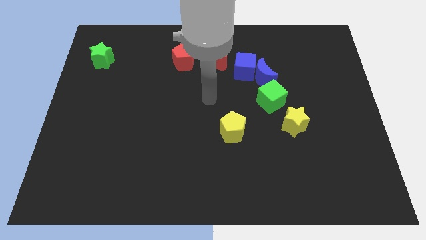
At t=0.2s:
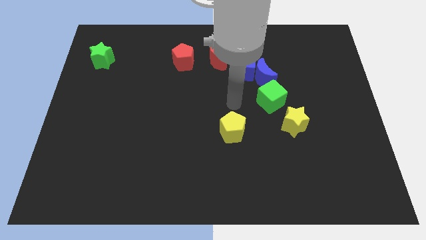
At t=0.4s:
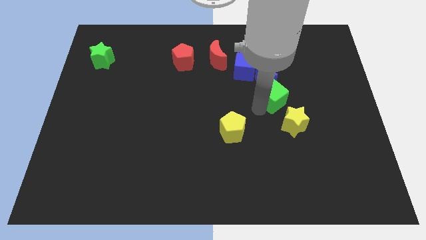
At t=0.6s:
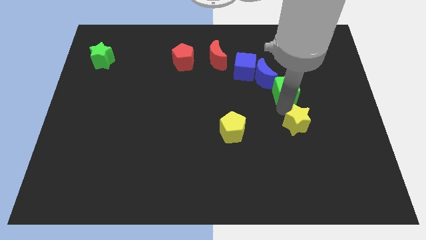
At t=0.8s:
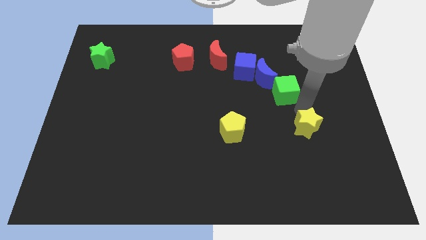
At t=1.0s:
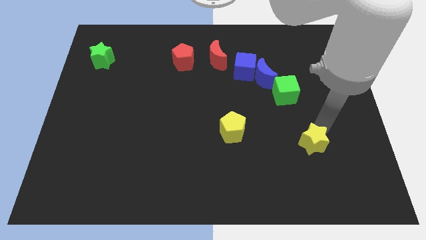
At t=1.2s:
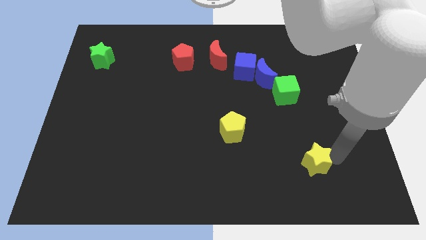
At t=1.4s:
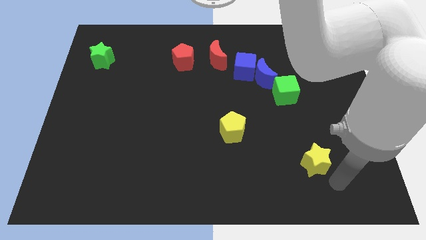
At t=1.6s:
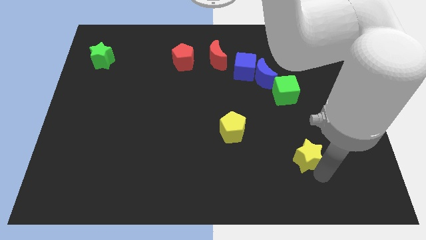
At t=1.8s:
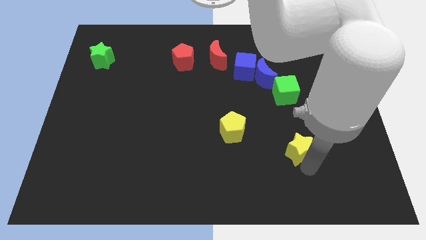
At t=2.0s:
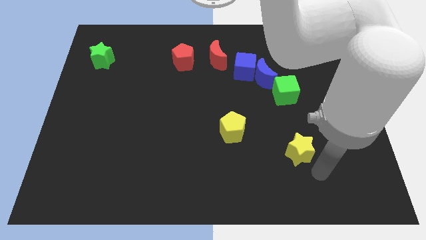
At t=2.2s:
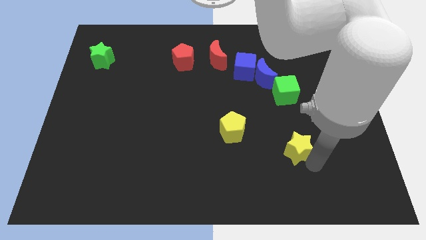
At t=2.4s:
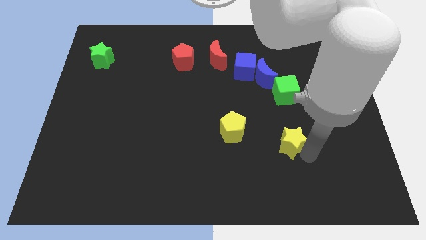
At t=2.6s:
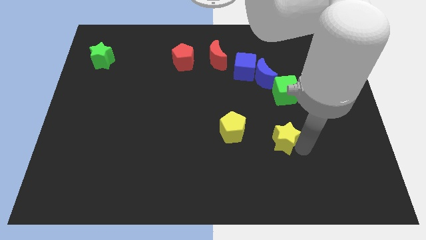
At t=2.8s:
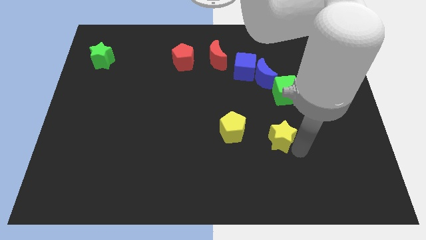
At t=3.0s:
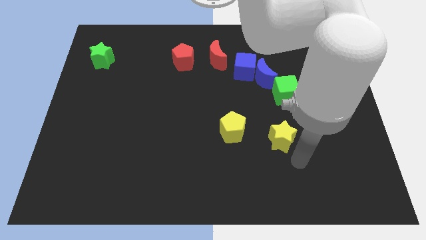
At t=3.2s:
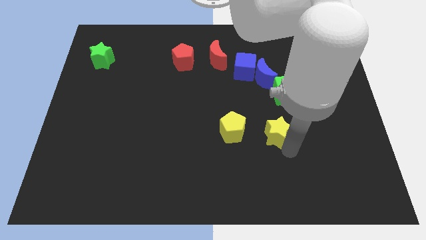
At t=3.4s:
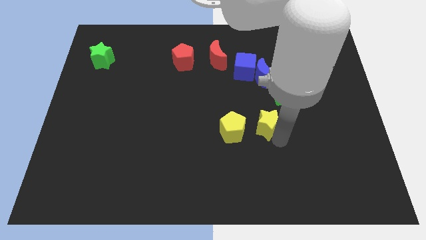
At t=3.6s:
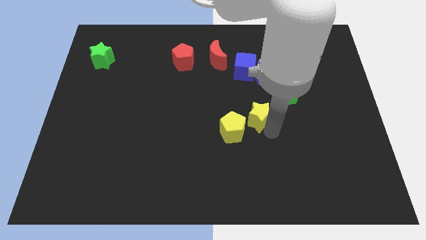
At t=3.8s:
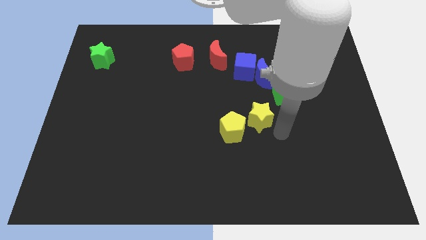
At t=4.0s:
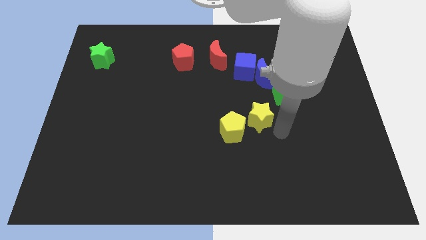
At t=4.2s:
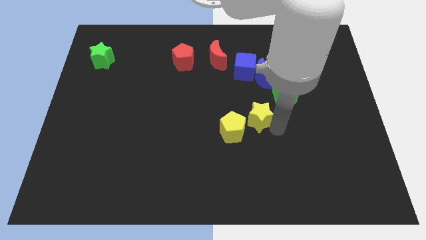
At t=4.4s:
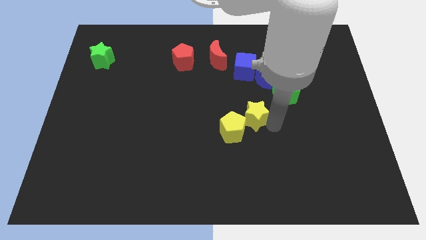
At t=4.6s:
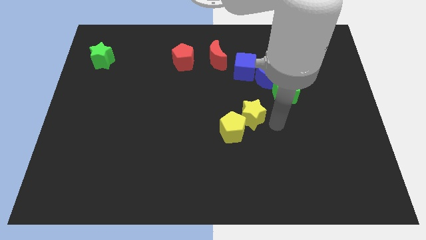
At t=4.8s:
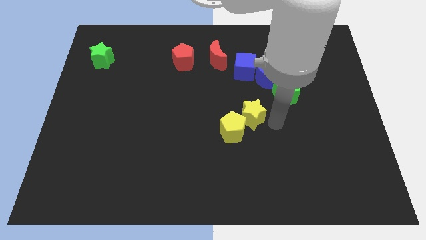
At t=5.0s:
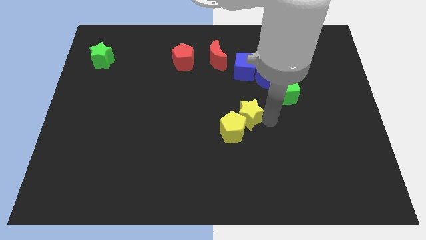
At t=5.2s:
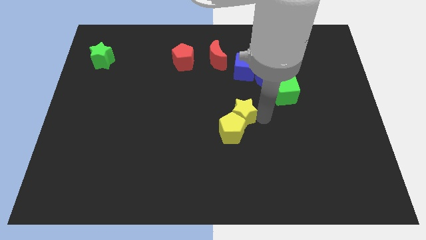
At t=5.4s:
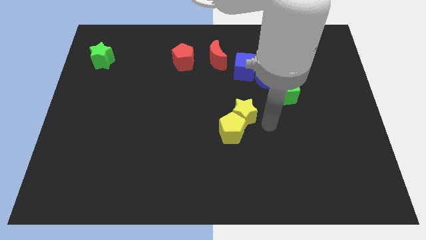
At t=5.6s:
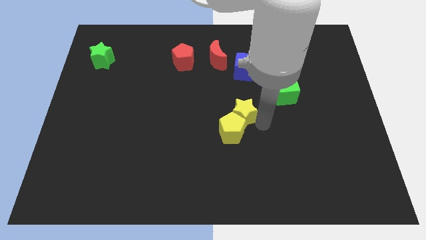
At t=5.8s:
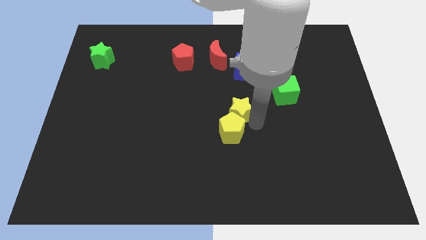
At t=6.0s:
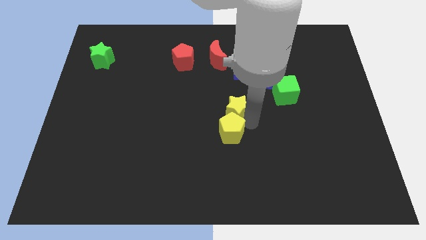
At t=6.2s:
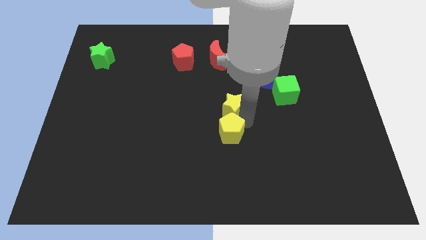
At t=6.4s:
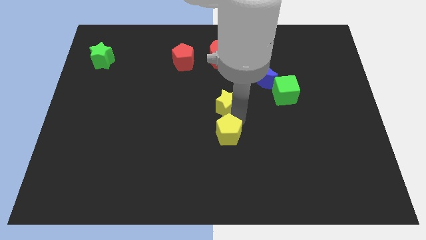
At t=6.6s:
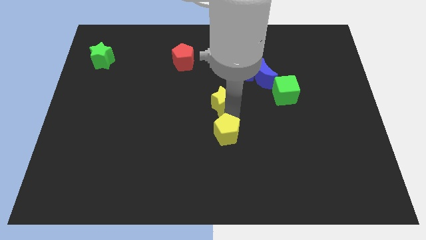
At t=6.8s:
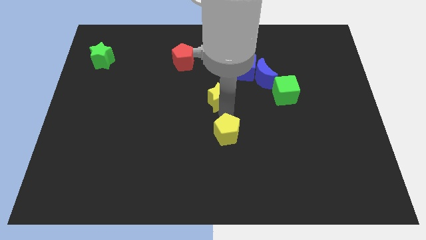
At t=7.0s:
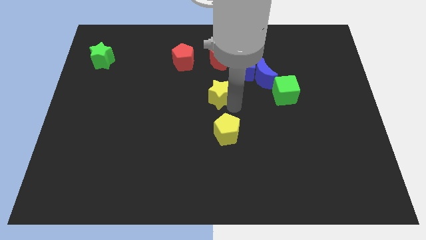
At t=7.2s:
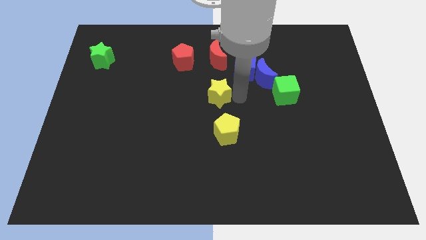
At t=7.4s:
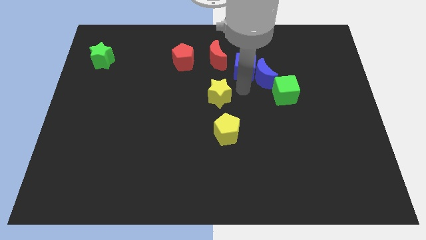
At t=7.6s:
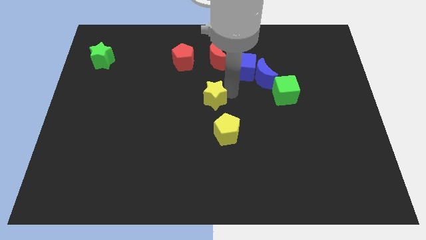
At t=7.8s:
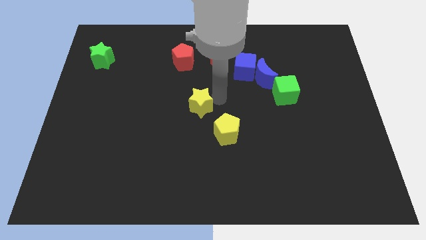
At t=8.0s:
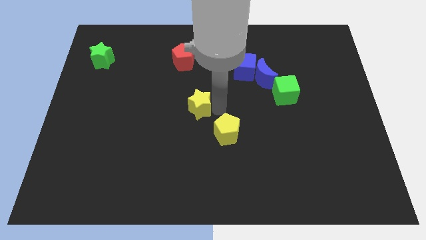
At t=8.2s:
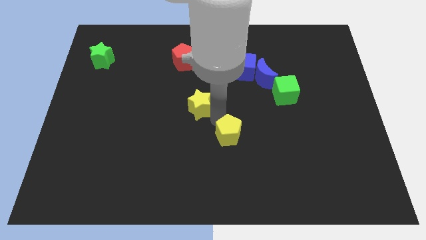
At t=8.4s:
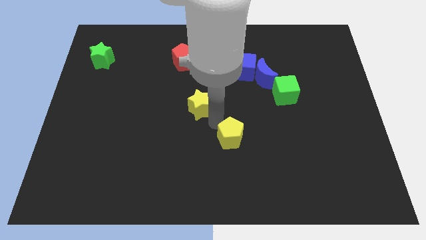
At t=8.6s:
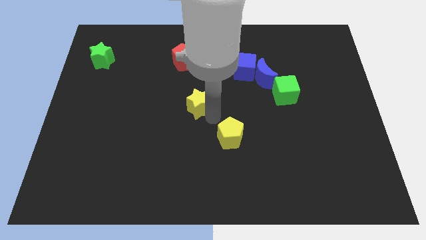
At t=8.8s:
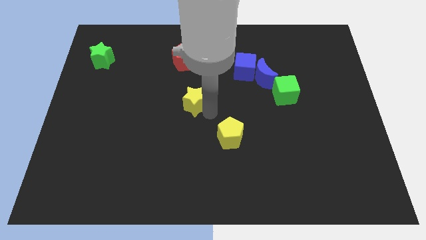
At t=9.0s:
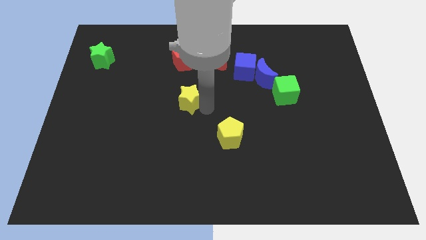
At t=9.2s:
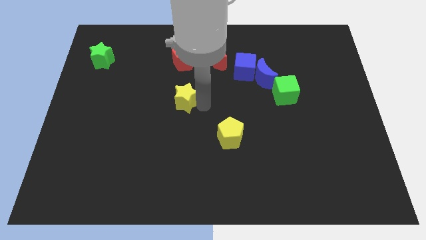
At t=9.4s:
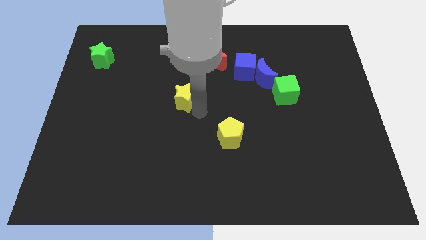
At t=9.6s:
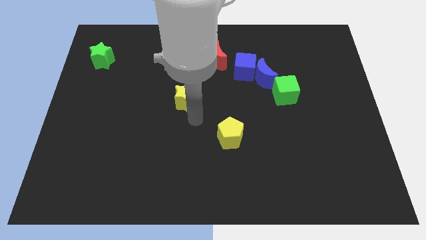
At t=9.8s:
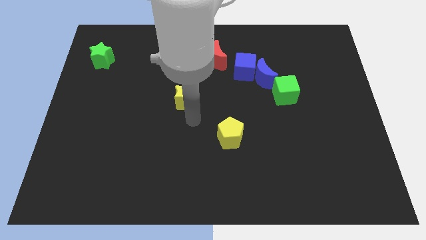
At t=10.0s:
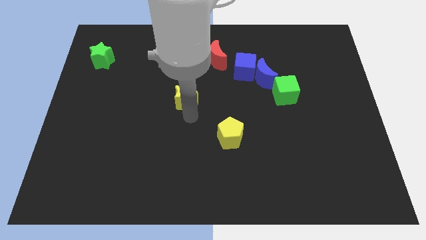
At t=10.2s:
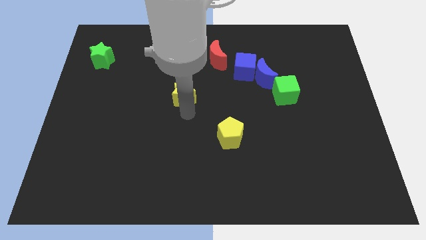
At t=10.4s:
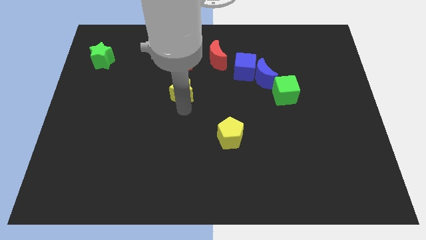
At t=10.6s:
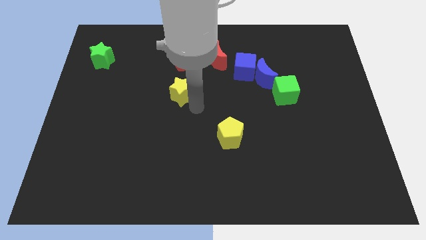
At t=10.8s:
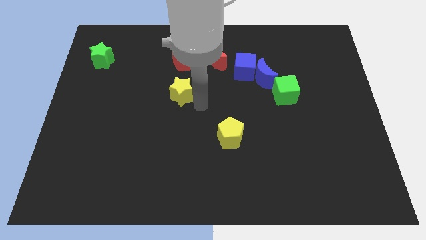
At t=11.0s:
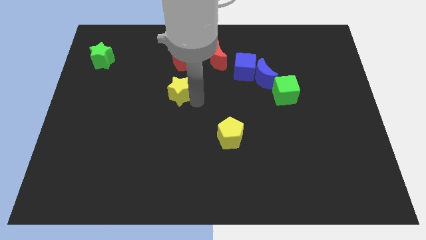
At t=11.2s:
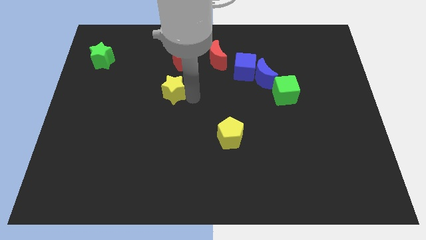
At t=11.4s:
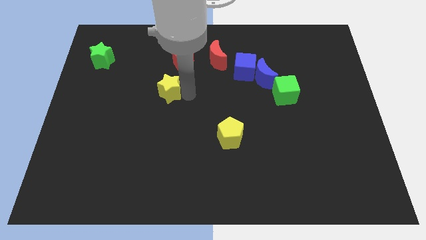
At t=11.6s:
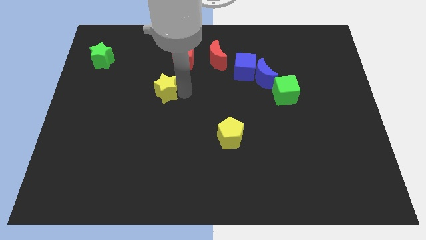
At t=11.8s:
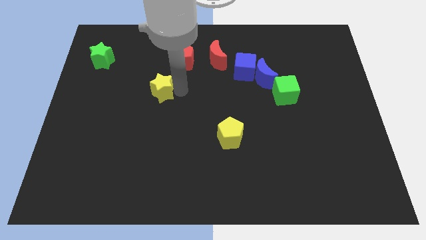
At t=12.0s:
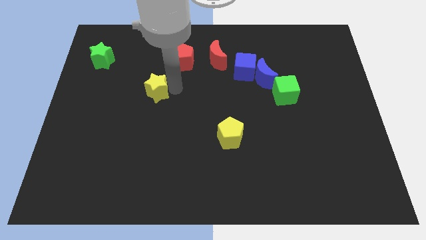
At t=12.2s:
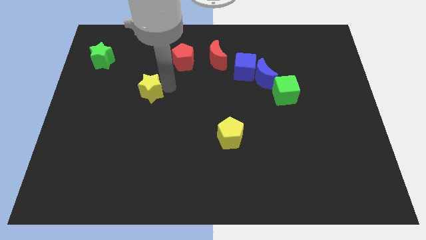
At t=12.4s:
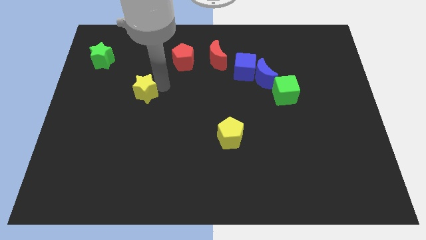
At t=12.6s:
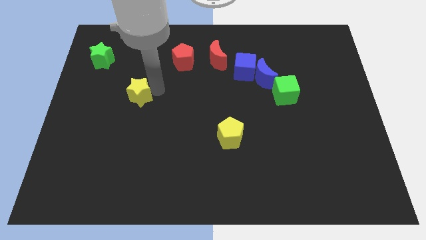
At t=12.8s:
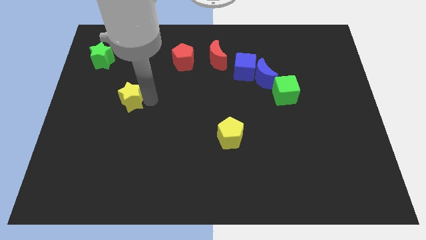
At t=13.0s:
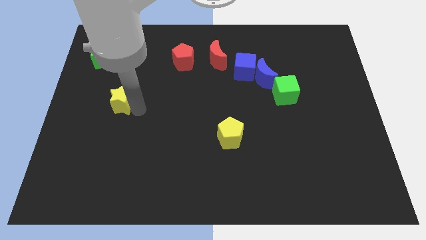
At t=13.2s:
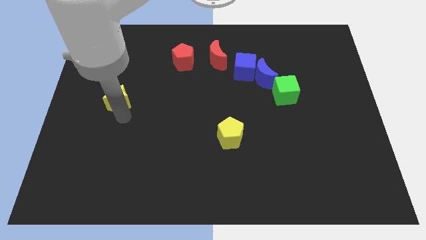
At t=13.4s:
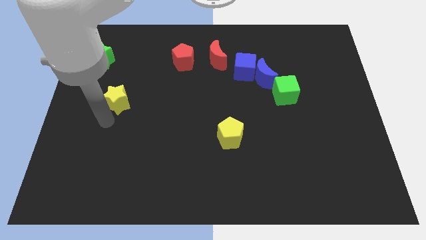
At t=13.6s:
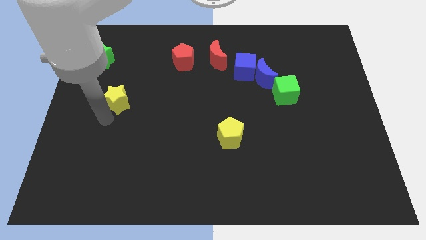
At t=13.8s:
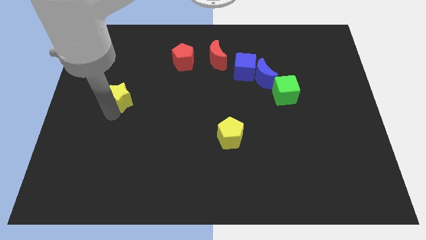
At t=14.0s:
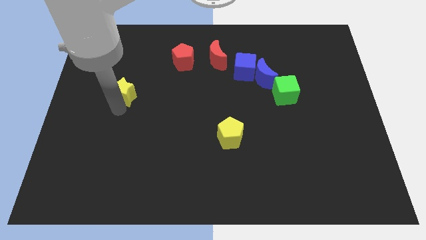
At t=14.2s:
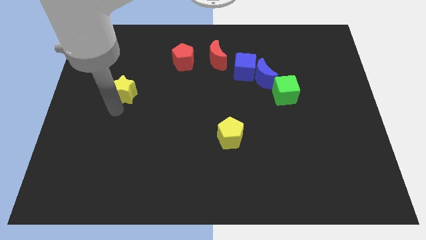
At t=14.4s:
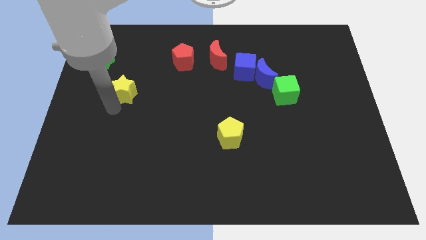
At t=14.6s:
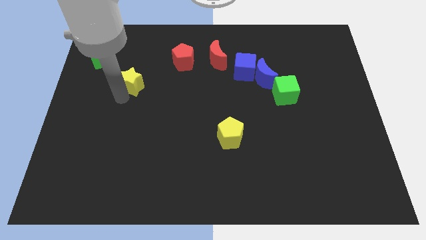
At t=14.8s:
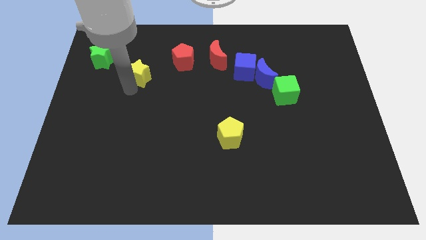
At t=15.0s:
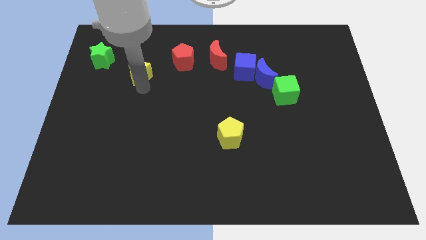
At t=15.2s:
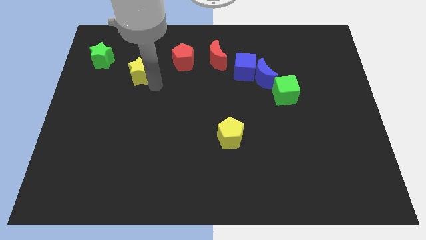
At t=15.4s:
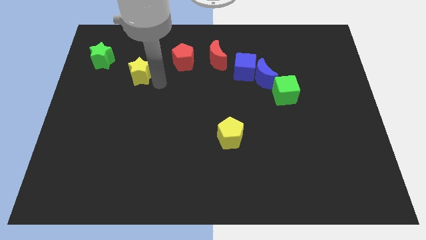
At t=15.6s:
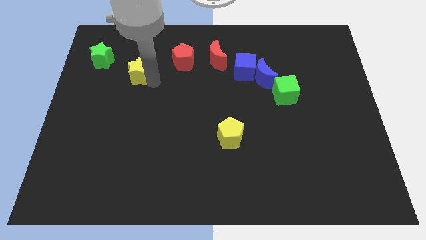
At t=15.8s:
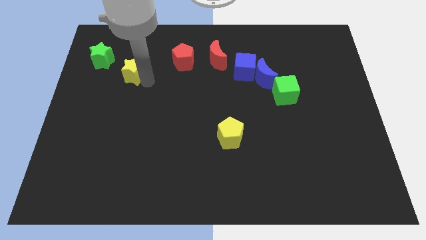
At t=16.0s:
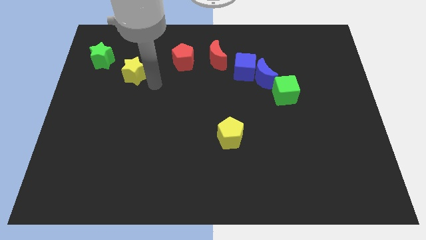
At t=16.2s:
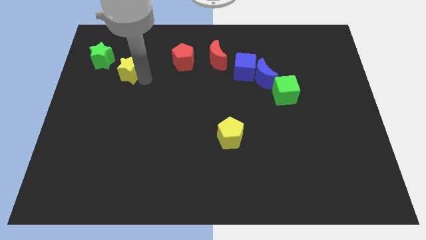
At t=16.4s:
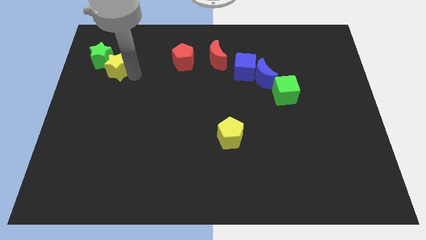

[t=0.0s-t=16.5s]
put the yellow star next to the green star
